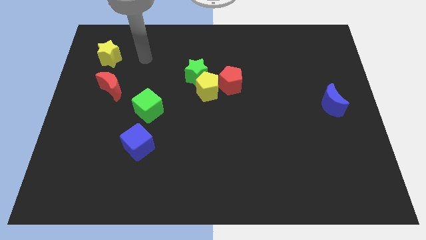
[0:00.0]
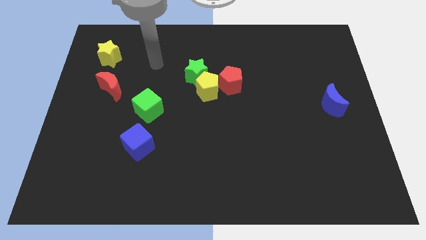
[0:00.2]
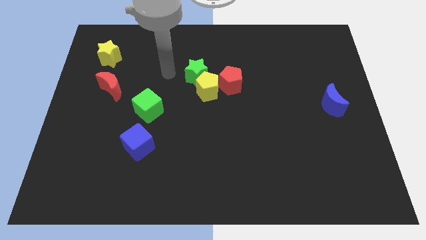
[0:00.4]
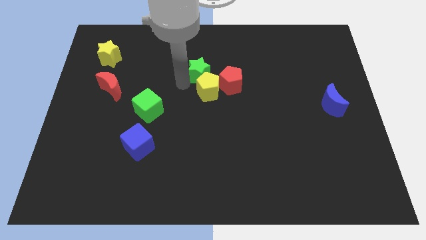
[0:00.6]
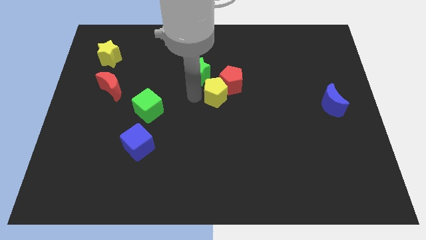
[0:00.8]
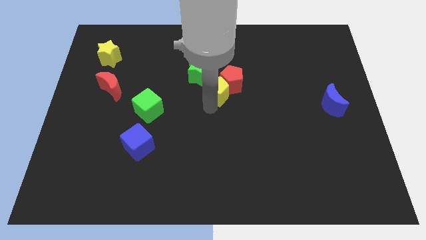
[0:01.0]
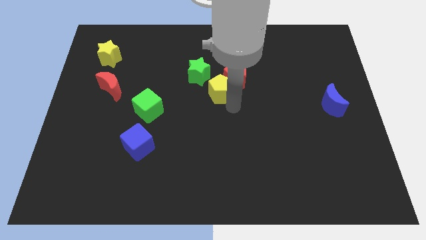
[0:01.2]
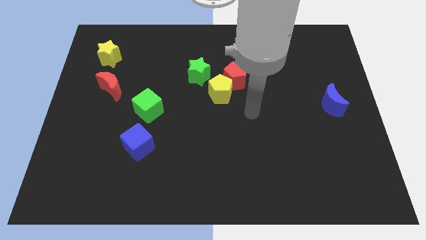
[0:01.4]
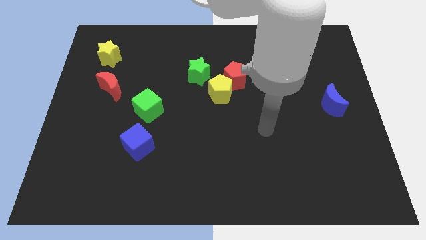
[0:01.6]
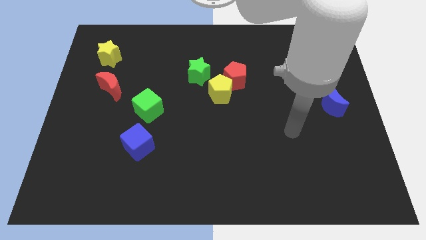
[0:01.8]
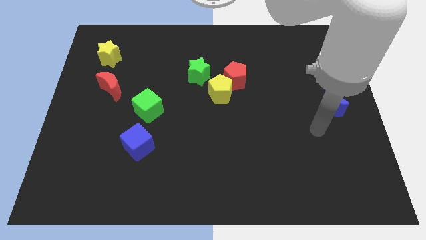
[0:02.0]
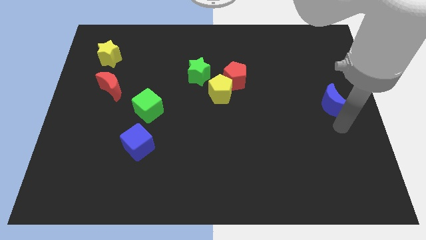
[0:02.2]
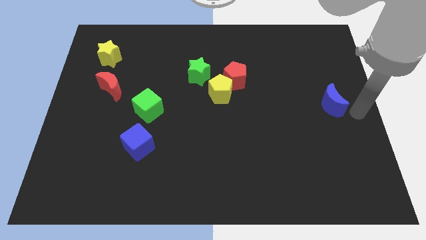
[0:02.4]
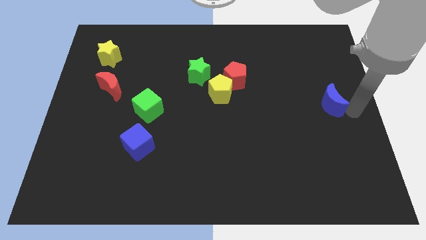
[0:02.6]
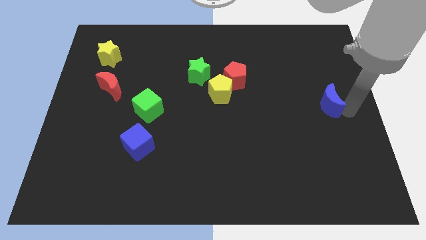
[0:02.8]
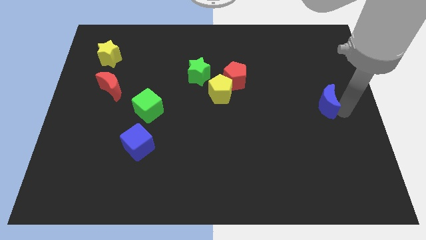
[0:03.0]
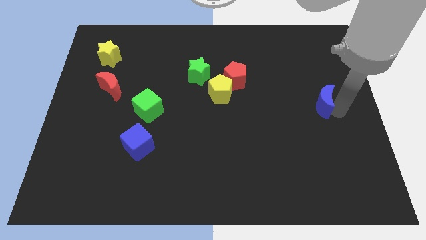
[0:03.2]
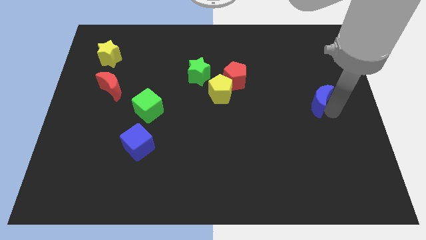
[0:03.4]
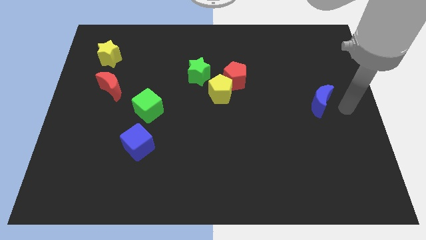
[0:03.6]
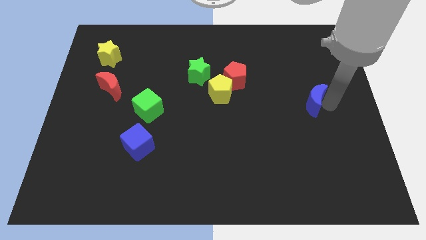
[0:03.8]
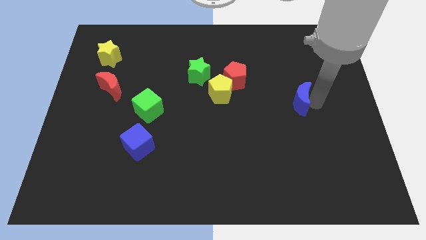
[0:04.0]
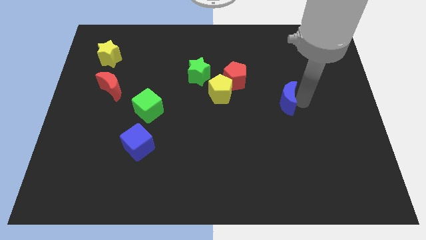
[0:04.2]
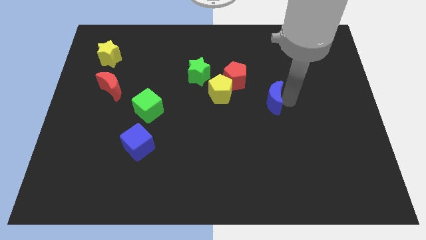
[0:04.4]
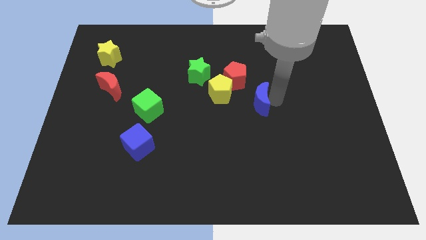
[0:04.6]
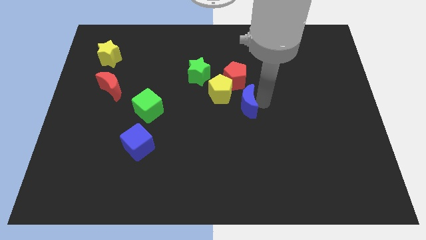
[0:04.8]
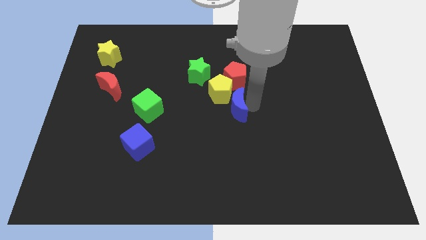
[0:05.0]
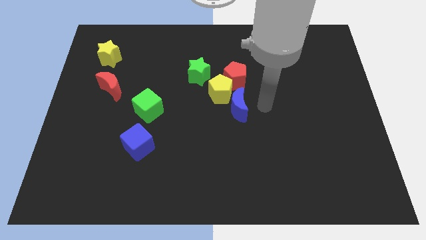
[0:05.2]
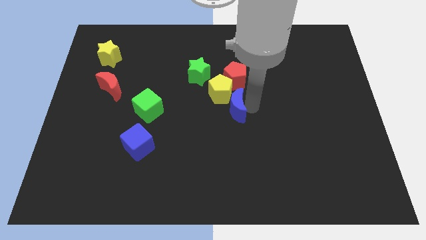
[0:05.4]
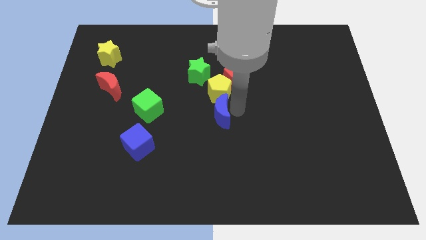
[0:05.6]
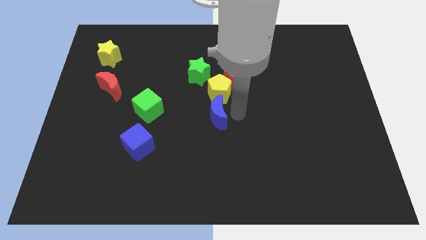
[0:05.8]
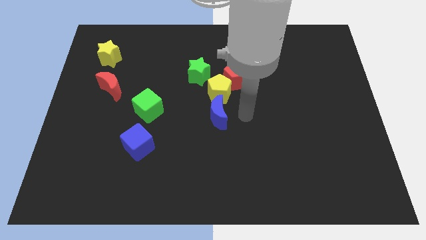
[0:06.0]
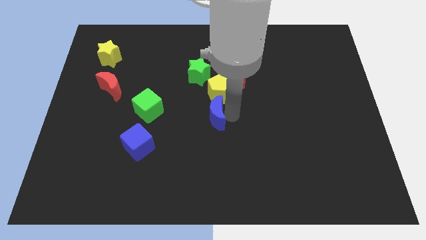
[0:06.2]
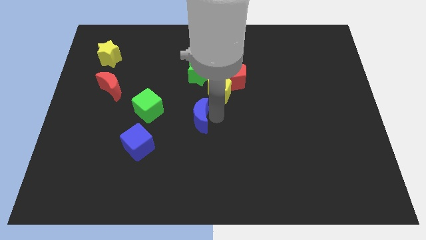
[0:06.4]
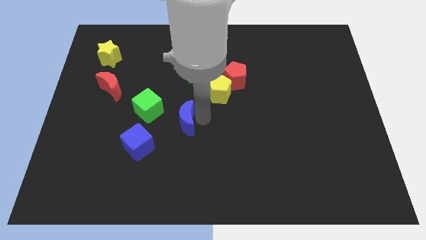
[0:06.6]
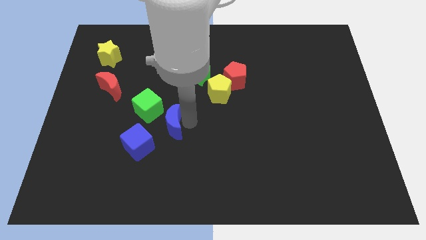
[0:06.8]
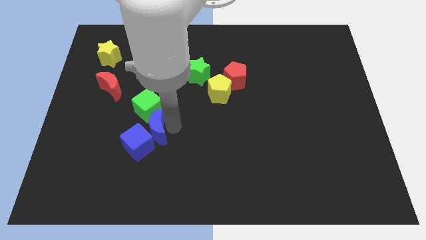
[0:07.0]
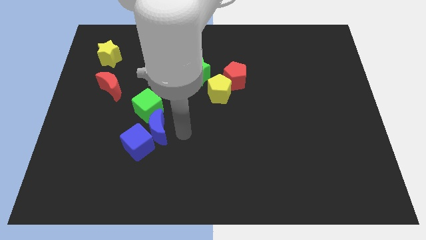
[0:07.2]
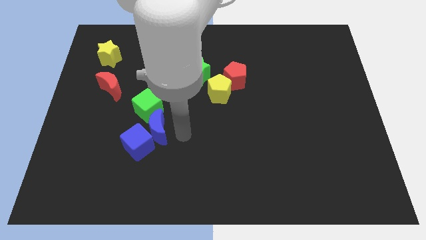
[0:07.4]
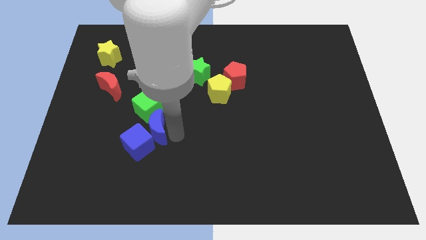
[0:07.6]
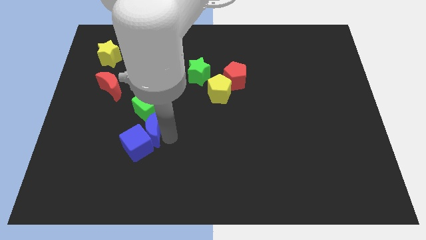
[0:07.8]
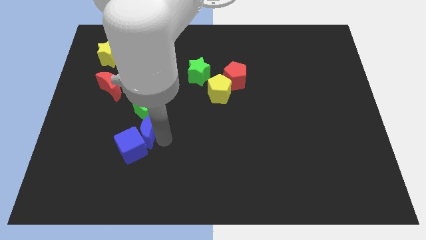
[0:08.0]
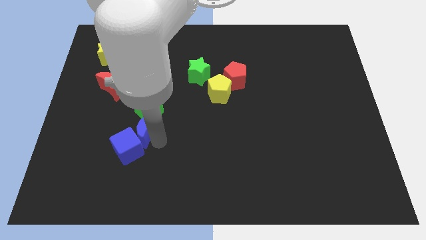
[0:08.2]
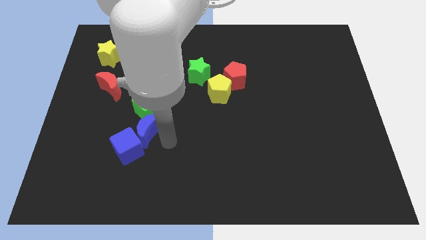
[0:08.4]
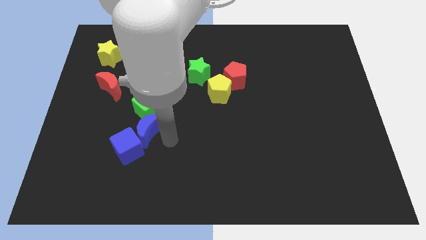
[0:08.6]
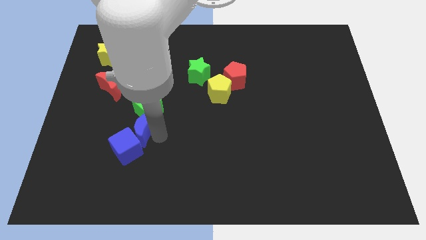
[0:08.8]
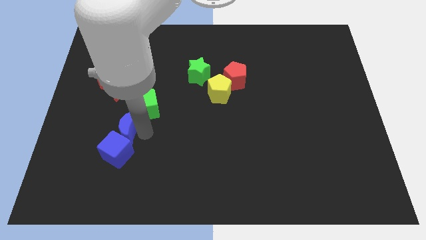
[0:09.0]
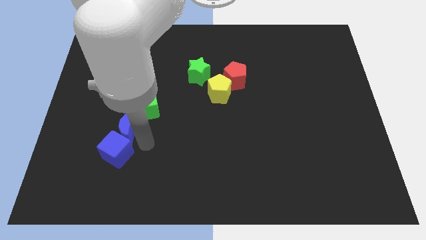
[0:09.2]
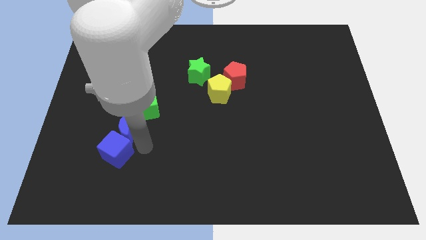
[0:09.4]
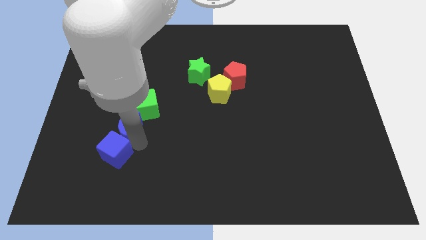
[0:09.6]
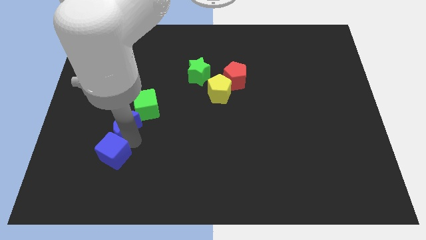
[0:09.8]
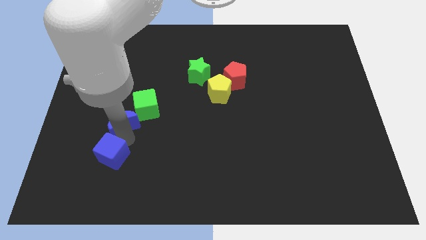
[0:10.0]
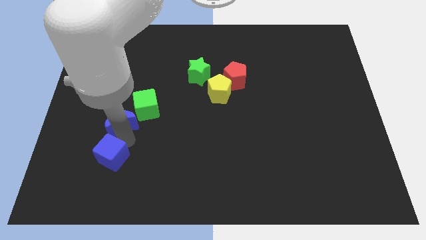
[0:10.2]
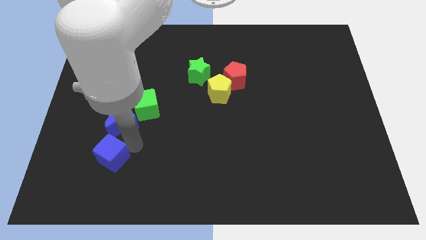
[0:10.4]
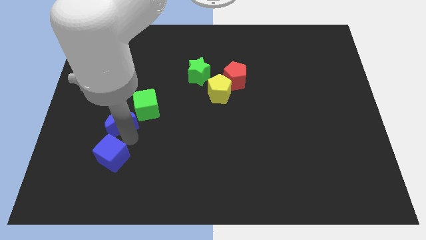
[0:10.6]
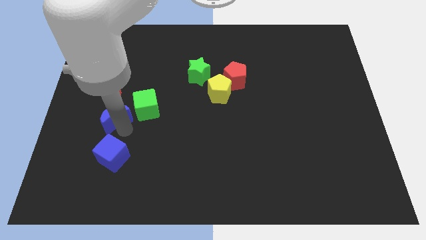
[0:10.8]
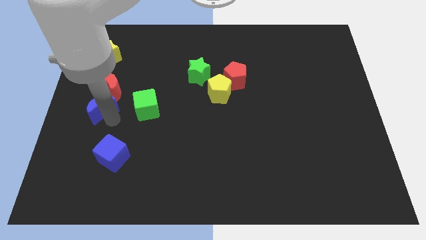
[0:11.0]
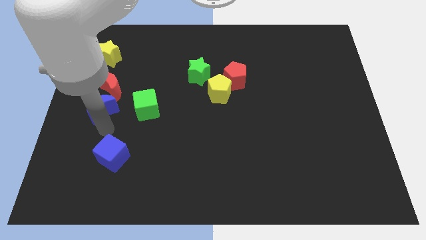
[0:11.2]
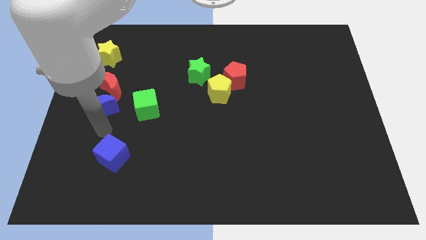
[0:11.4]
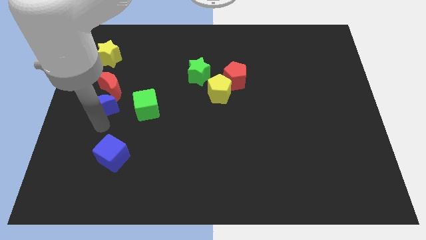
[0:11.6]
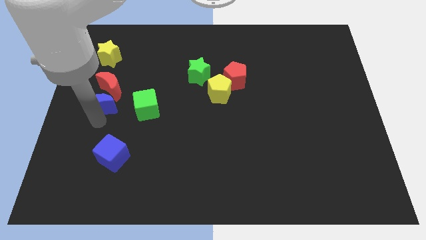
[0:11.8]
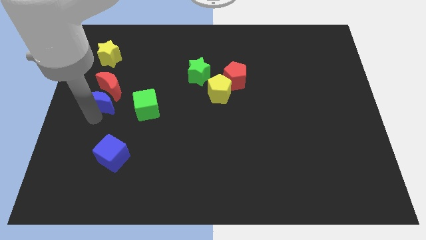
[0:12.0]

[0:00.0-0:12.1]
move the blue moon to the bottom of the yellow star
